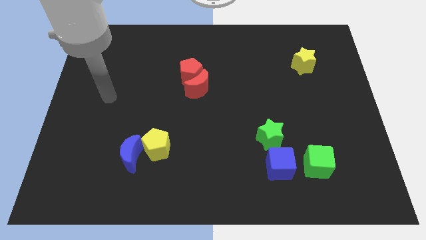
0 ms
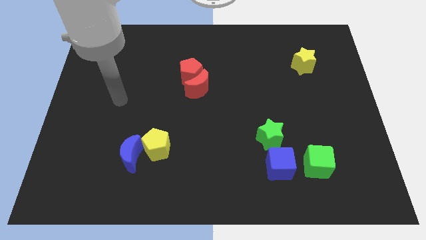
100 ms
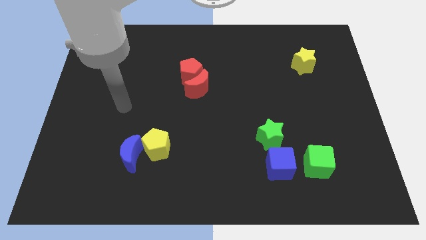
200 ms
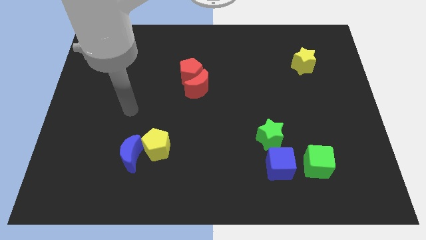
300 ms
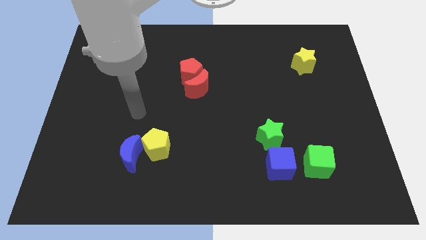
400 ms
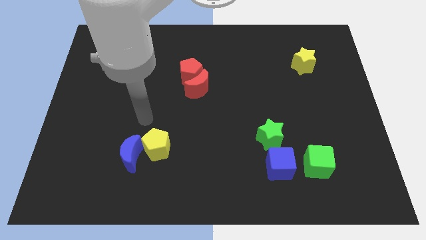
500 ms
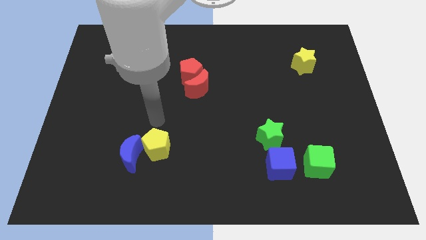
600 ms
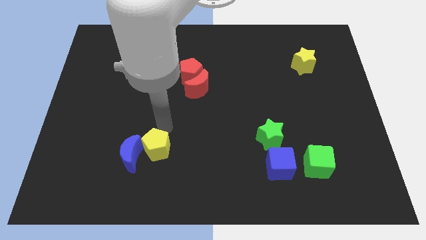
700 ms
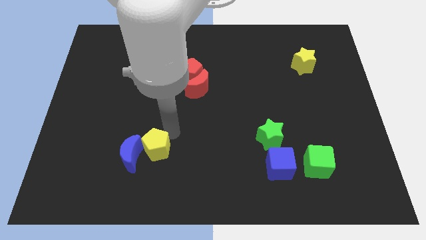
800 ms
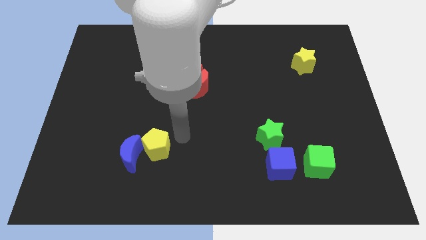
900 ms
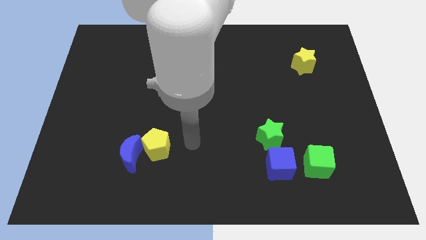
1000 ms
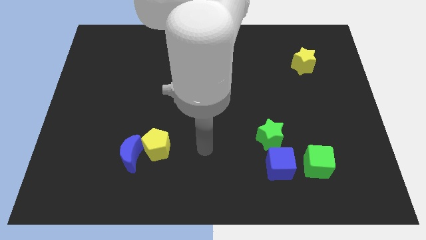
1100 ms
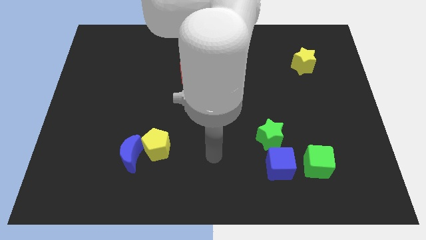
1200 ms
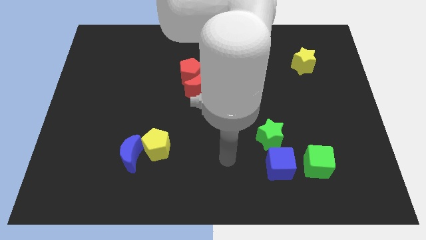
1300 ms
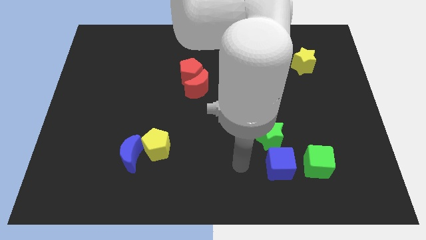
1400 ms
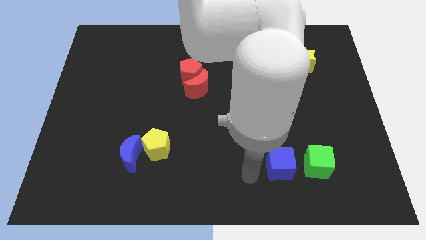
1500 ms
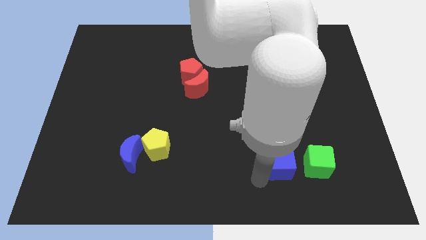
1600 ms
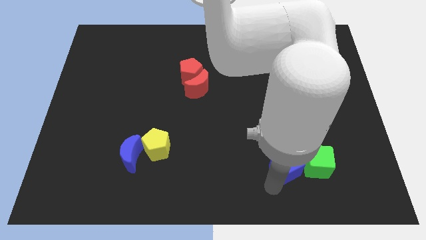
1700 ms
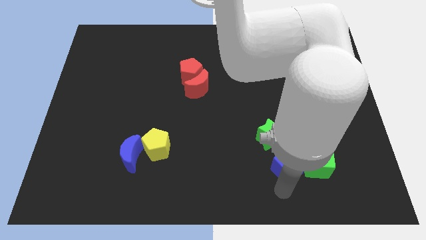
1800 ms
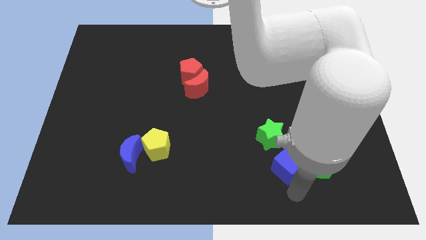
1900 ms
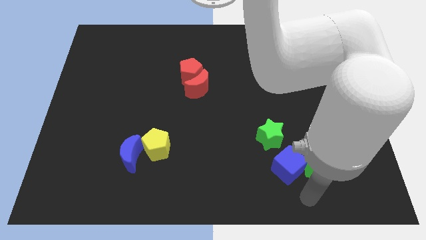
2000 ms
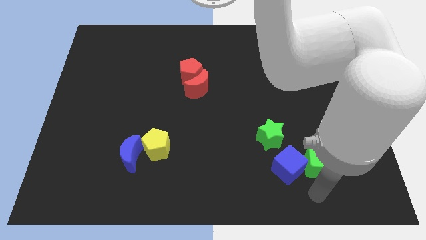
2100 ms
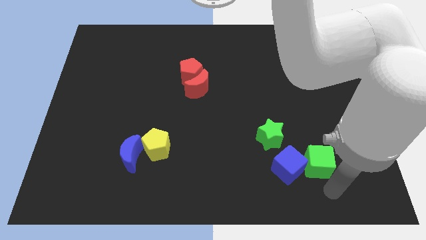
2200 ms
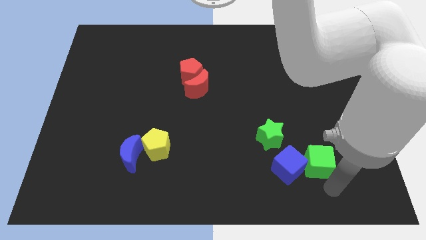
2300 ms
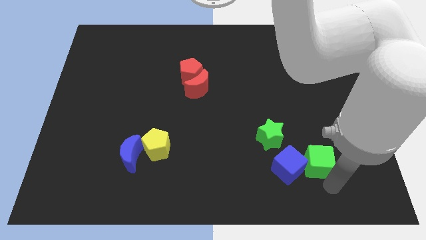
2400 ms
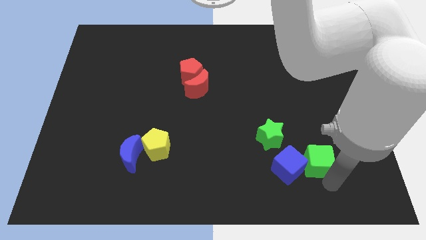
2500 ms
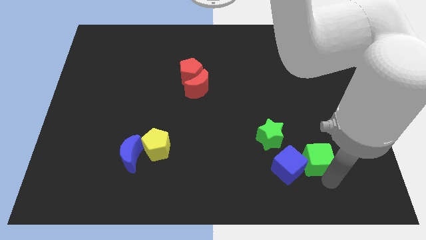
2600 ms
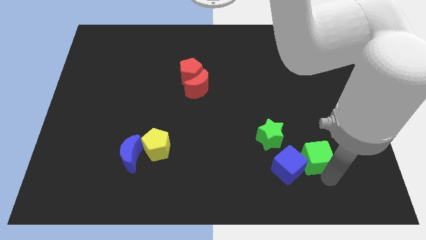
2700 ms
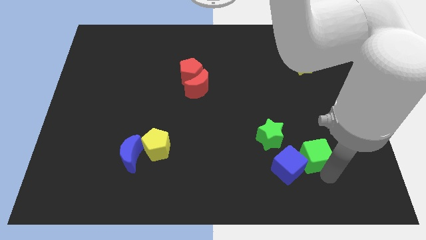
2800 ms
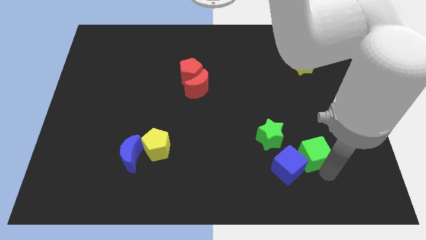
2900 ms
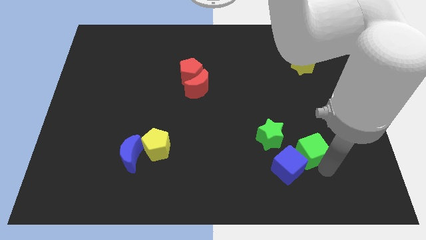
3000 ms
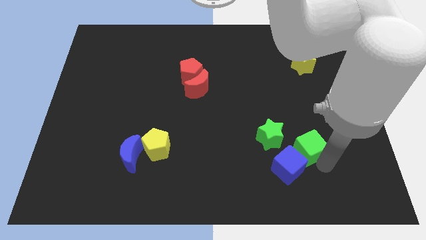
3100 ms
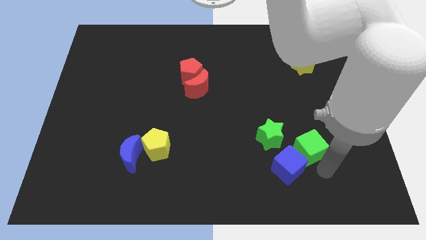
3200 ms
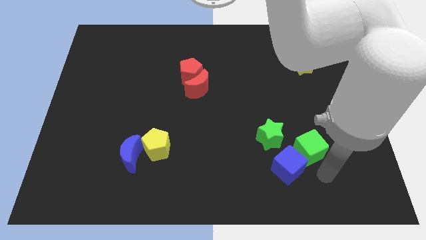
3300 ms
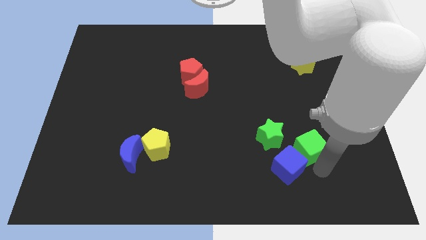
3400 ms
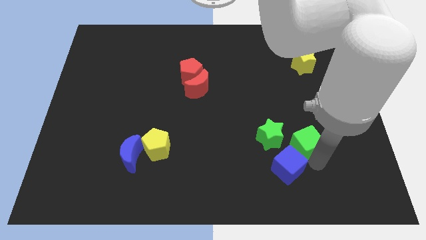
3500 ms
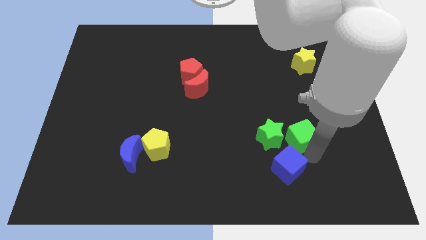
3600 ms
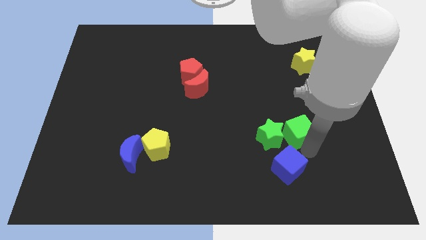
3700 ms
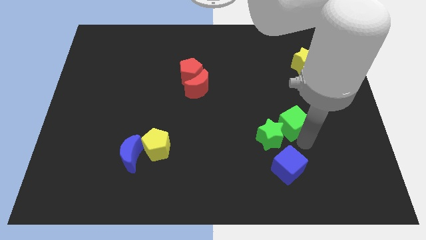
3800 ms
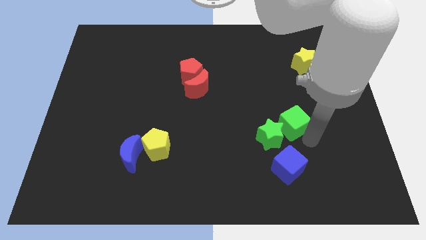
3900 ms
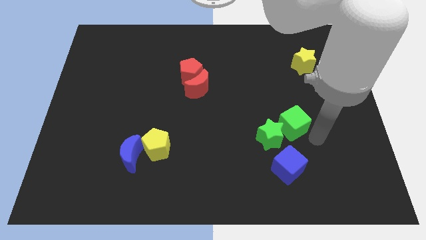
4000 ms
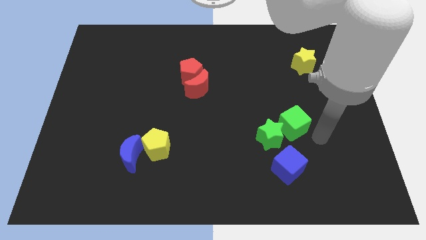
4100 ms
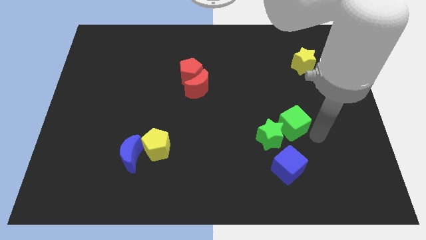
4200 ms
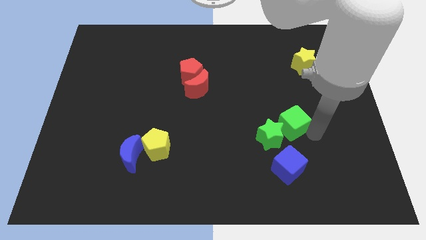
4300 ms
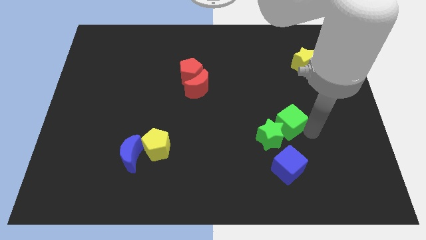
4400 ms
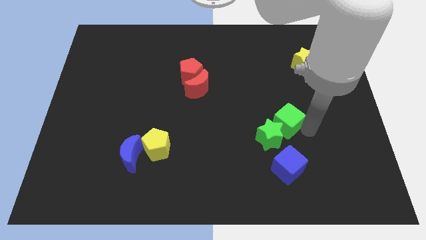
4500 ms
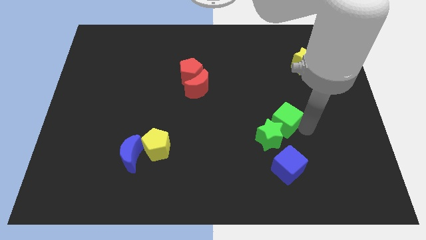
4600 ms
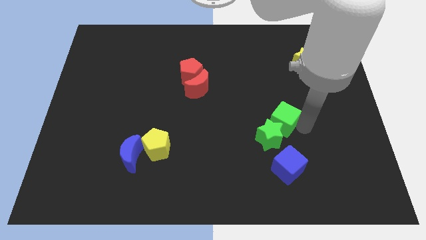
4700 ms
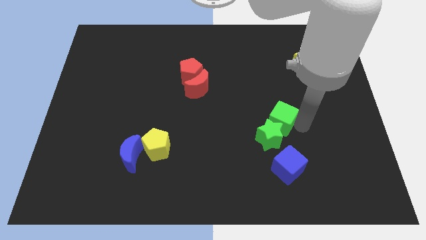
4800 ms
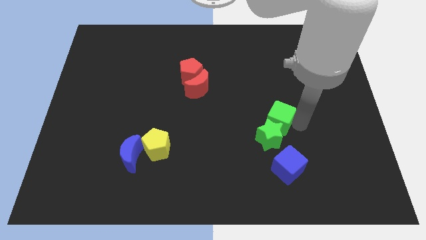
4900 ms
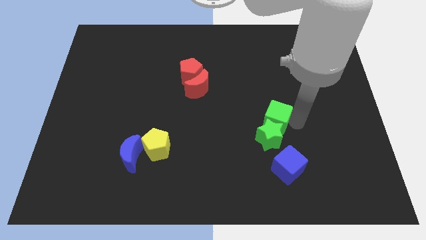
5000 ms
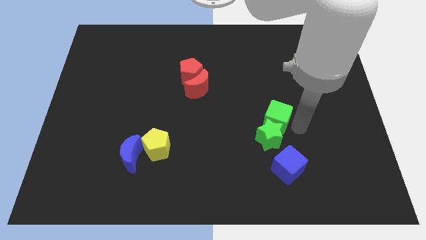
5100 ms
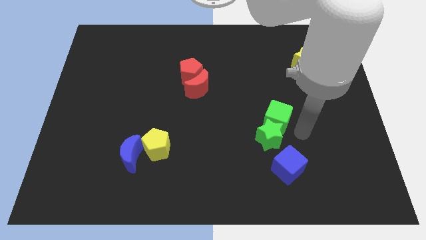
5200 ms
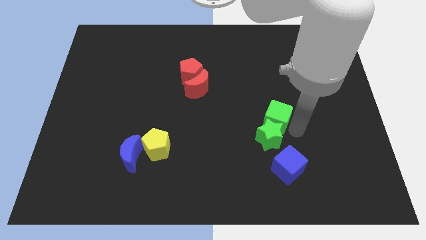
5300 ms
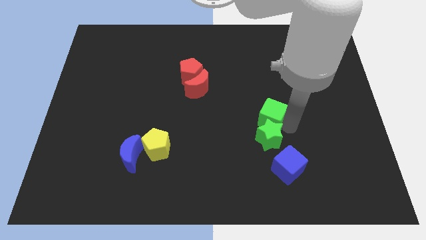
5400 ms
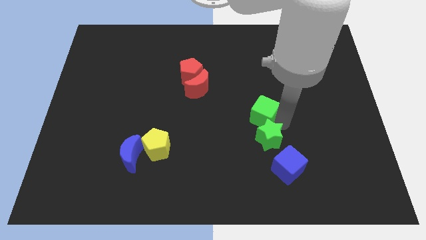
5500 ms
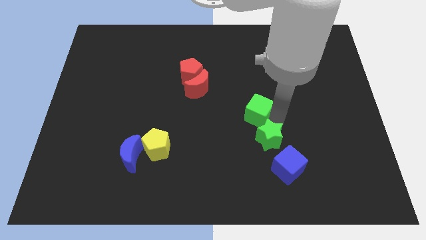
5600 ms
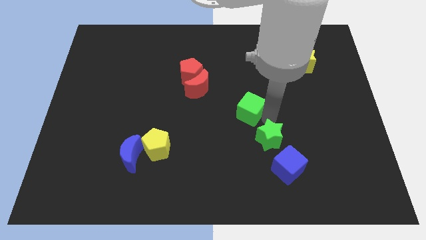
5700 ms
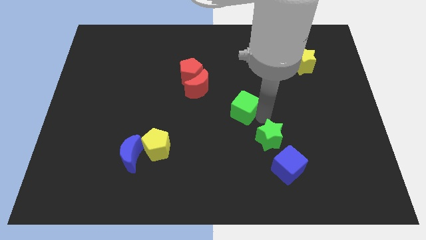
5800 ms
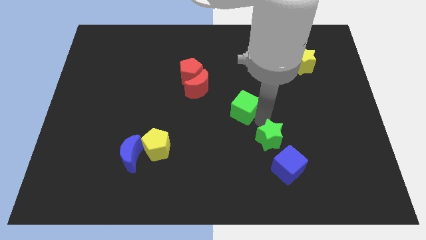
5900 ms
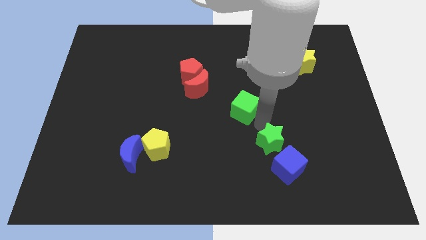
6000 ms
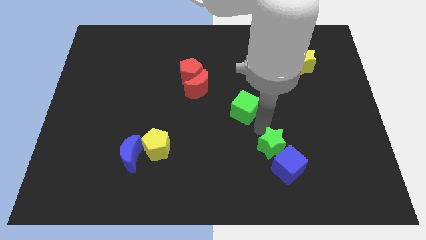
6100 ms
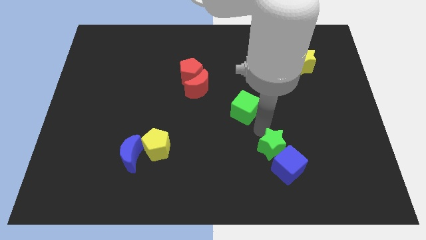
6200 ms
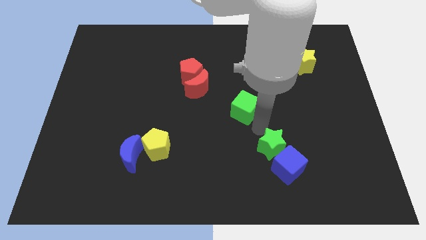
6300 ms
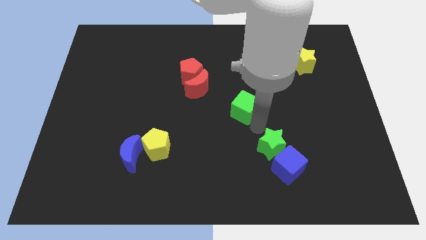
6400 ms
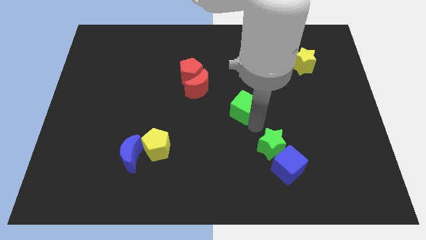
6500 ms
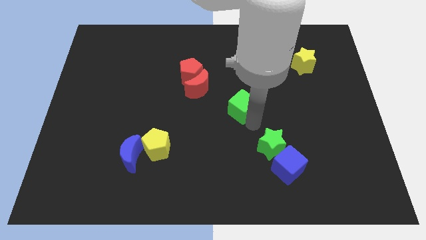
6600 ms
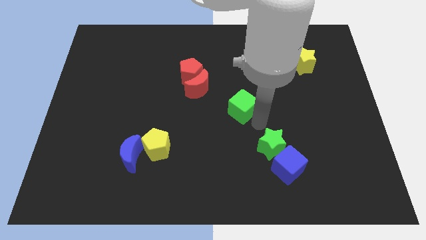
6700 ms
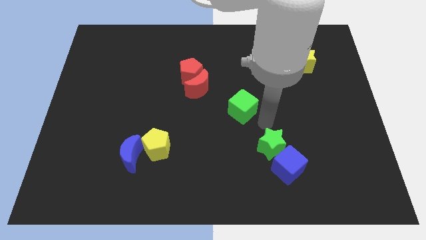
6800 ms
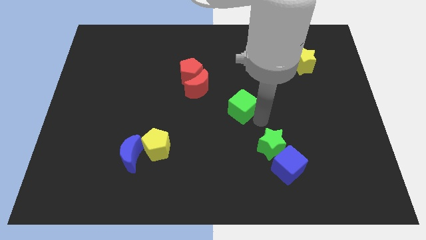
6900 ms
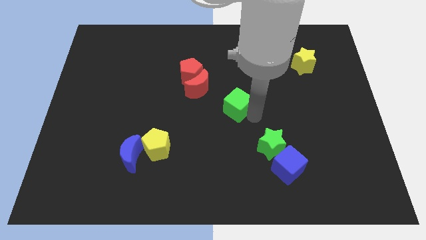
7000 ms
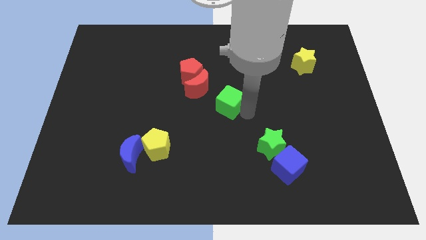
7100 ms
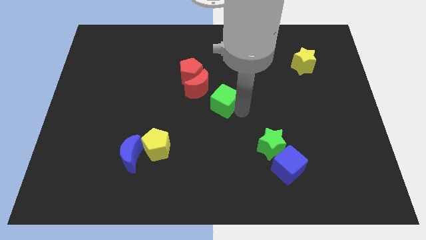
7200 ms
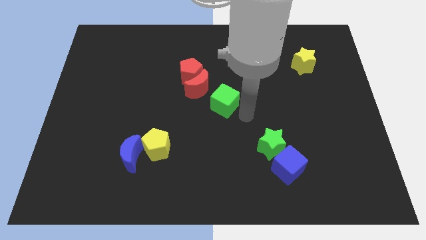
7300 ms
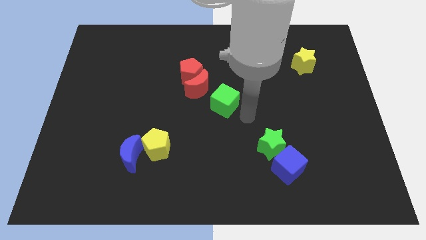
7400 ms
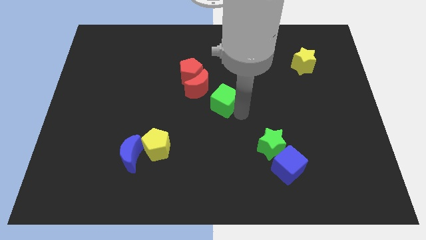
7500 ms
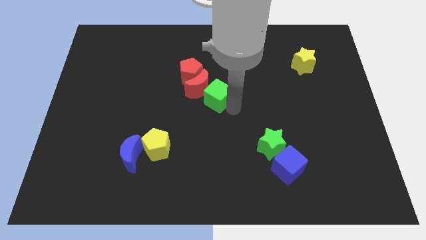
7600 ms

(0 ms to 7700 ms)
slide the green cube towards the red moon

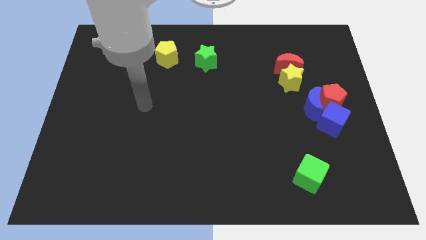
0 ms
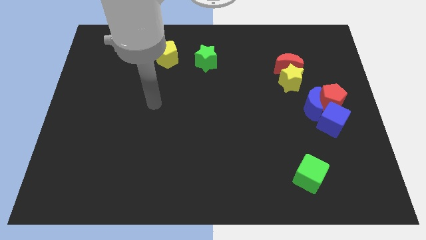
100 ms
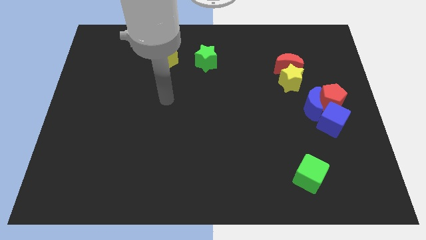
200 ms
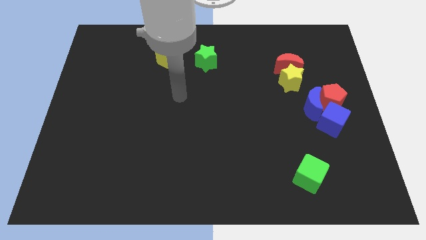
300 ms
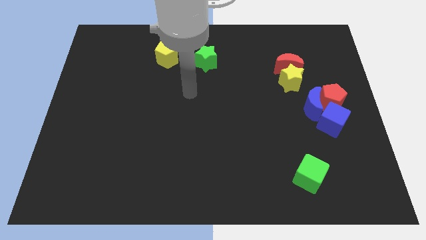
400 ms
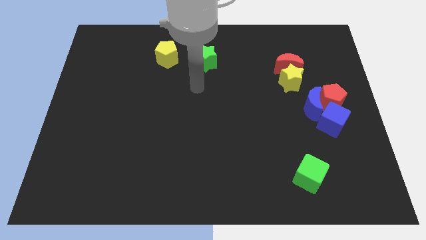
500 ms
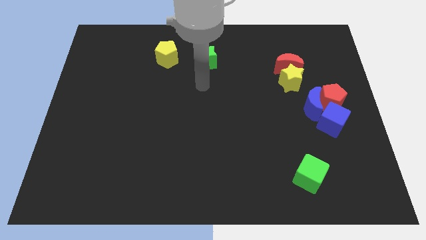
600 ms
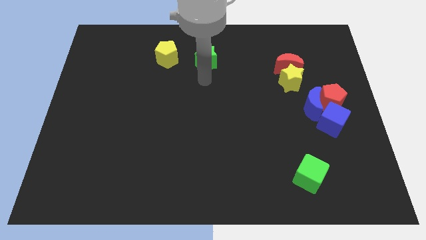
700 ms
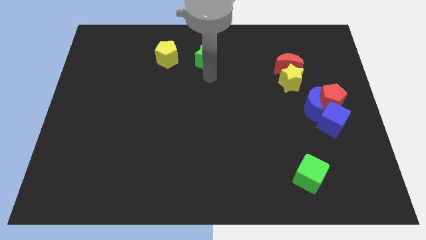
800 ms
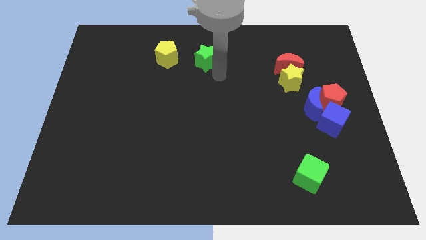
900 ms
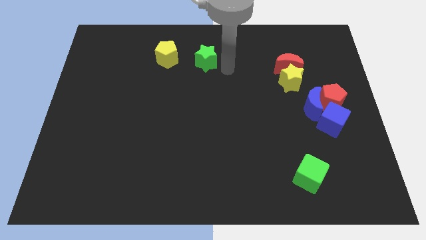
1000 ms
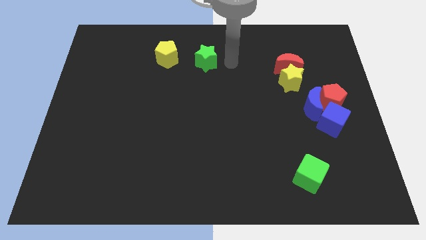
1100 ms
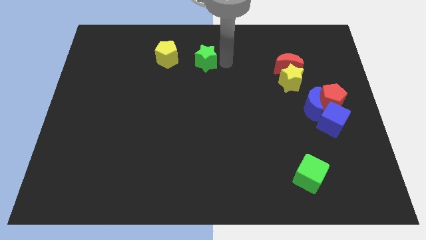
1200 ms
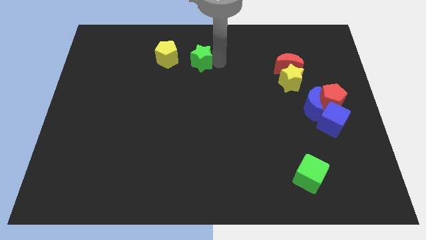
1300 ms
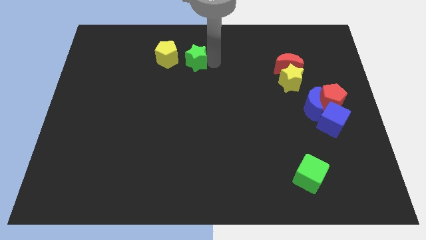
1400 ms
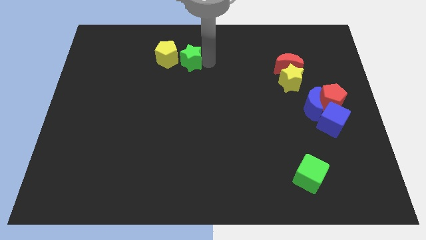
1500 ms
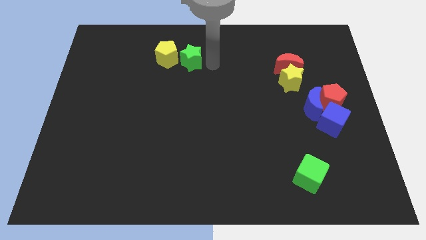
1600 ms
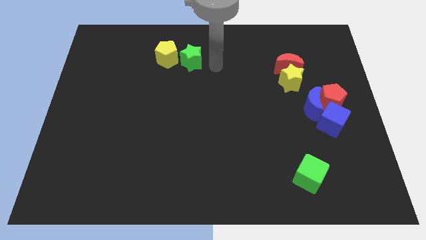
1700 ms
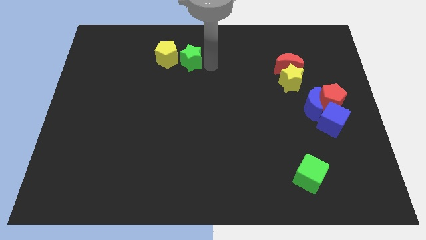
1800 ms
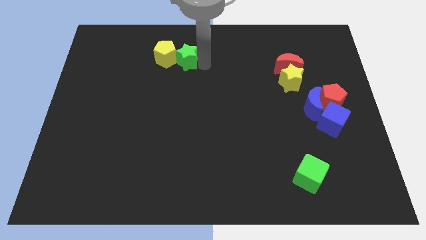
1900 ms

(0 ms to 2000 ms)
slide the green star close to the yellow pentagon
